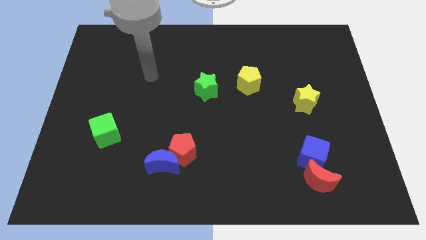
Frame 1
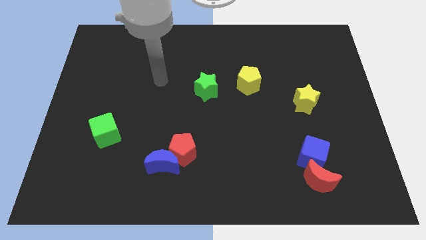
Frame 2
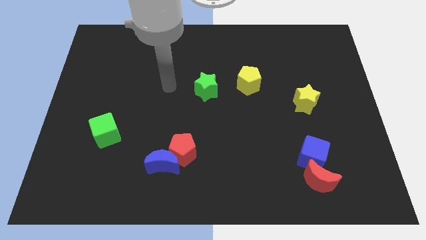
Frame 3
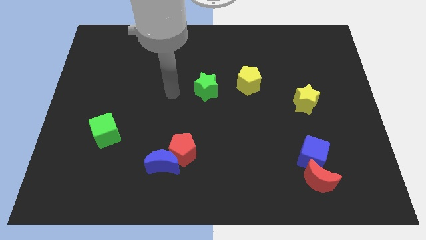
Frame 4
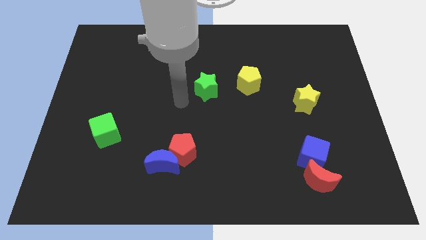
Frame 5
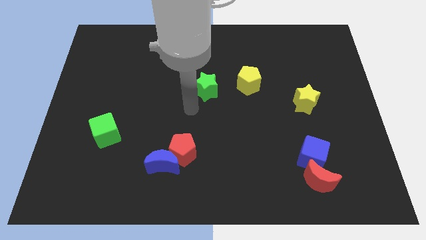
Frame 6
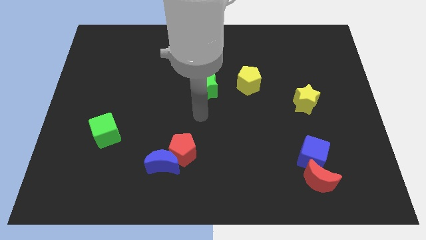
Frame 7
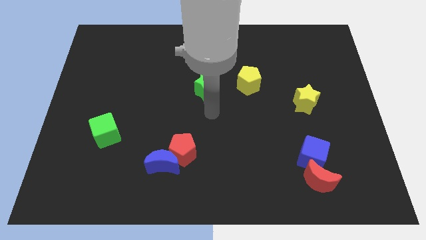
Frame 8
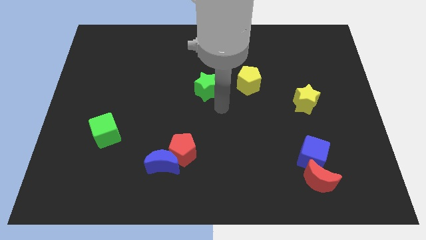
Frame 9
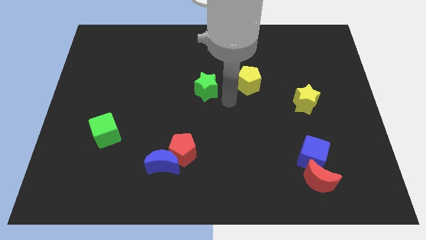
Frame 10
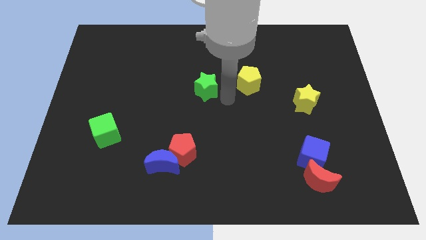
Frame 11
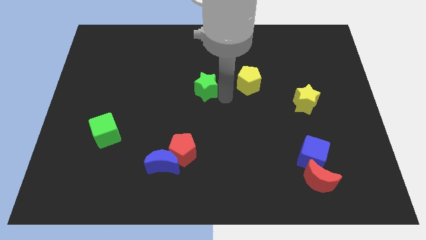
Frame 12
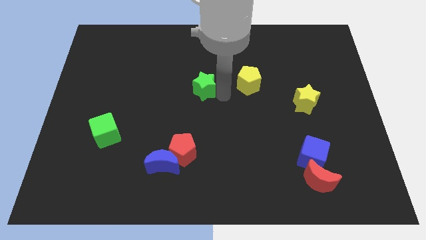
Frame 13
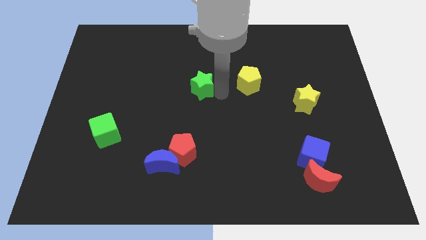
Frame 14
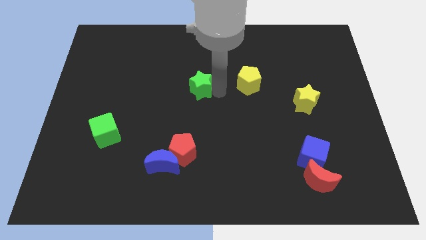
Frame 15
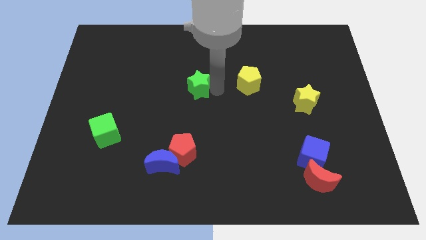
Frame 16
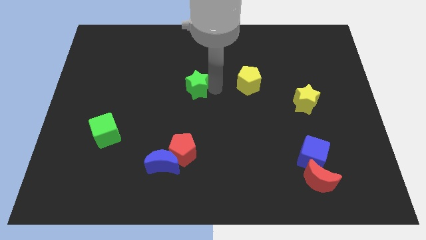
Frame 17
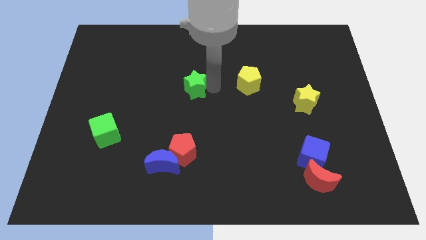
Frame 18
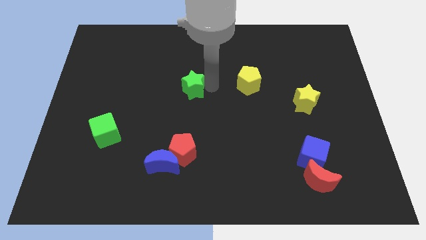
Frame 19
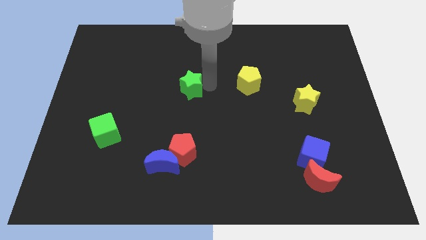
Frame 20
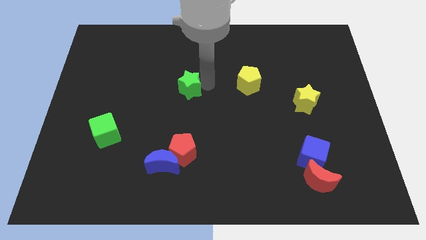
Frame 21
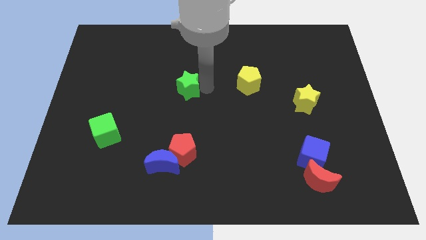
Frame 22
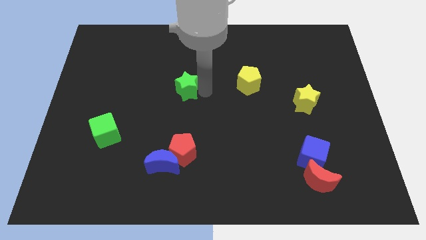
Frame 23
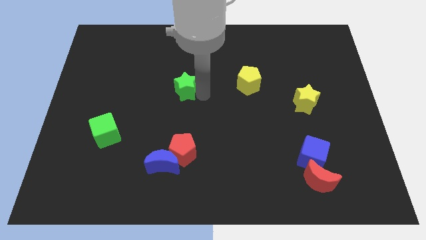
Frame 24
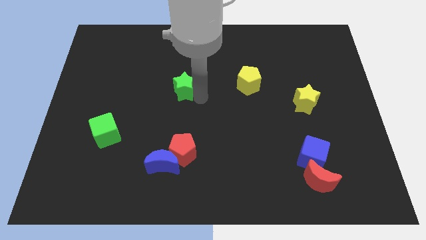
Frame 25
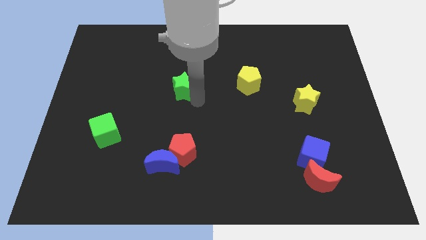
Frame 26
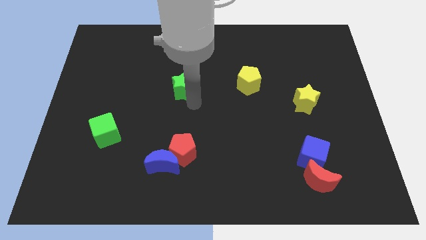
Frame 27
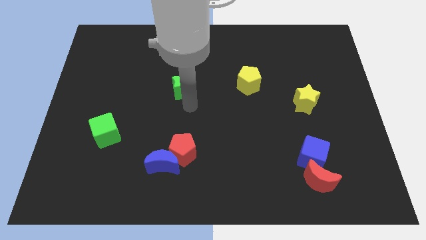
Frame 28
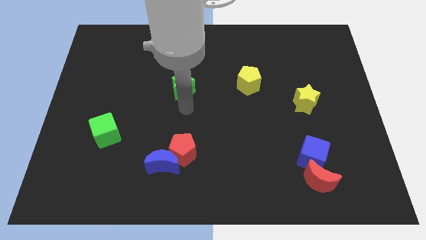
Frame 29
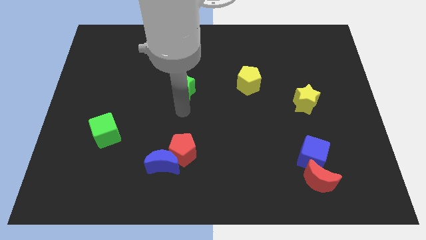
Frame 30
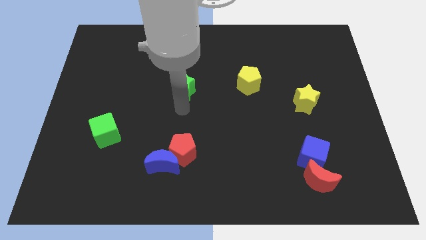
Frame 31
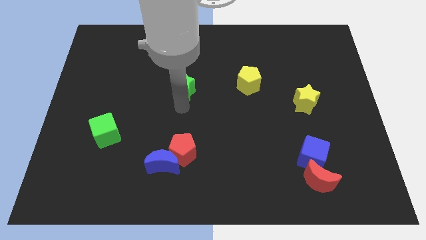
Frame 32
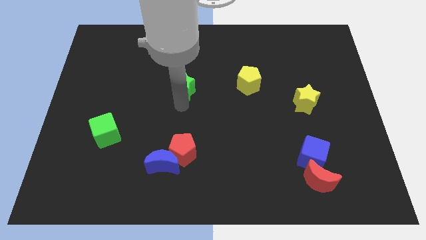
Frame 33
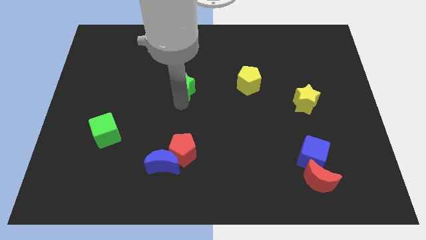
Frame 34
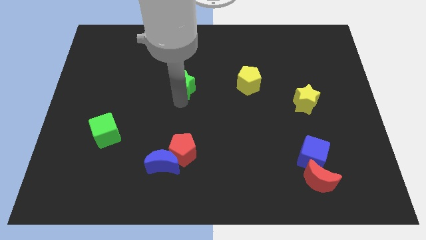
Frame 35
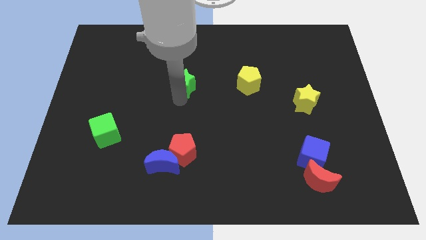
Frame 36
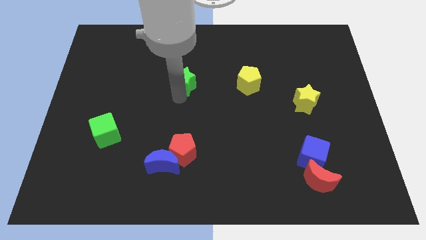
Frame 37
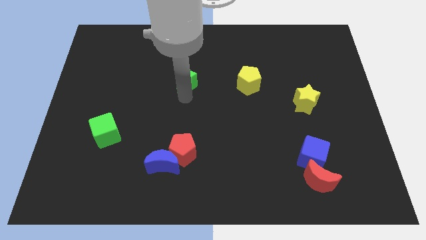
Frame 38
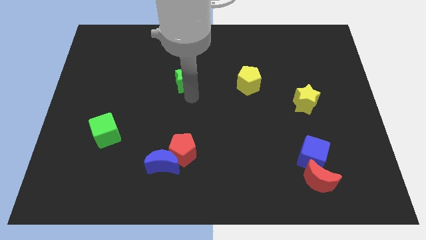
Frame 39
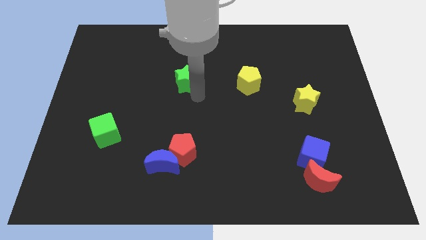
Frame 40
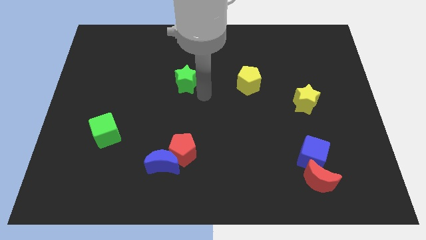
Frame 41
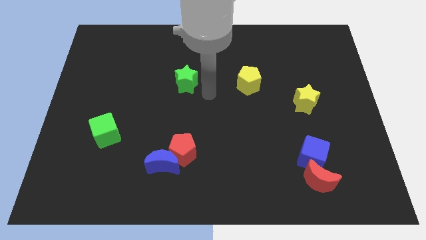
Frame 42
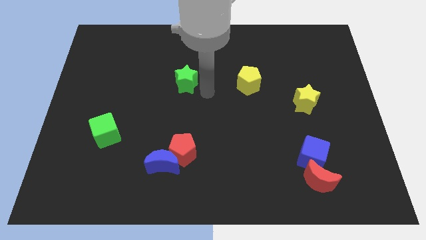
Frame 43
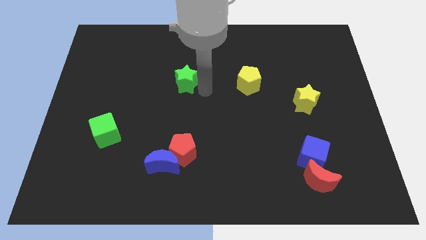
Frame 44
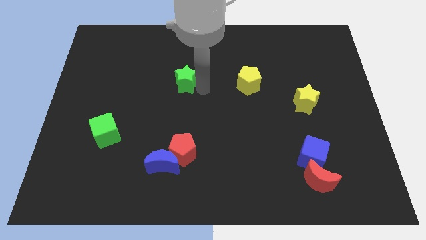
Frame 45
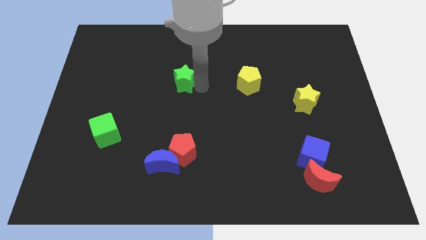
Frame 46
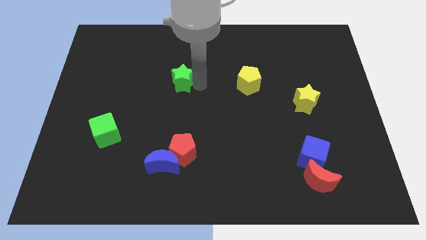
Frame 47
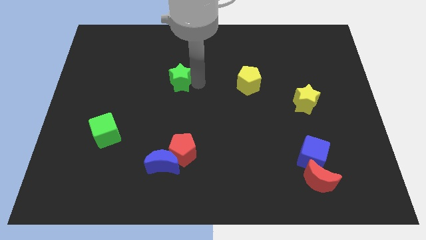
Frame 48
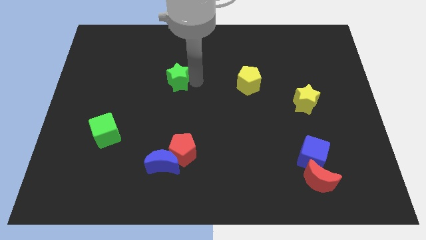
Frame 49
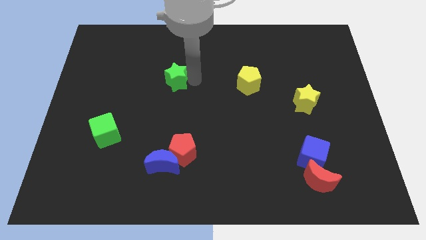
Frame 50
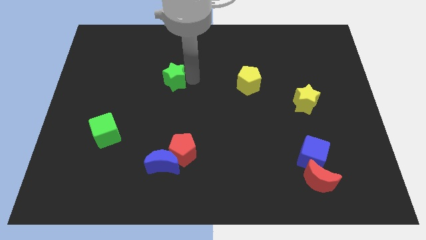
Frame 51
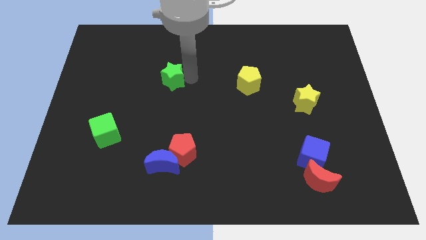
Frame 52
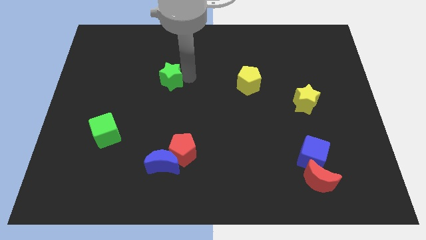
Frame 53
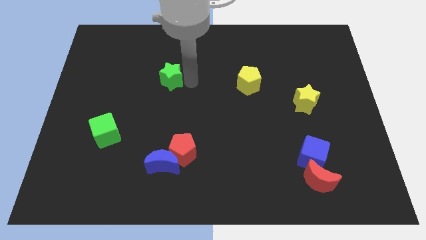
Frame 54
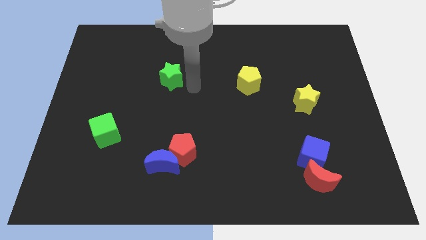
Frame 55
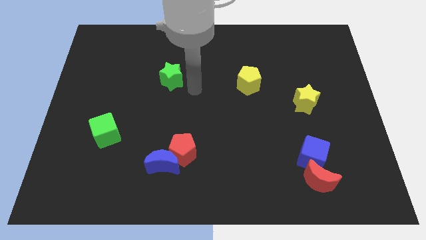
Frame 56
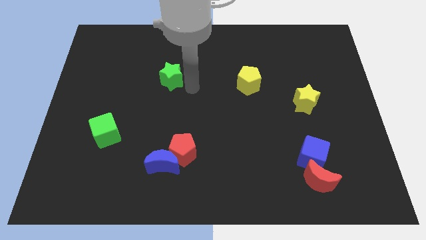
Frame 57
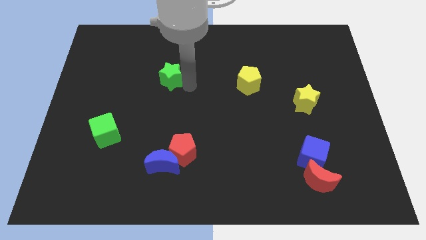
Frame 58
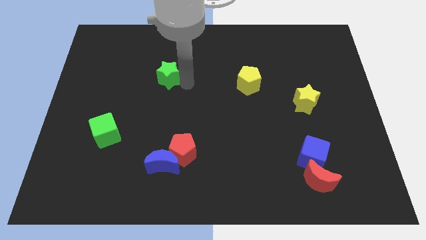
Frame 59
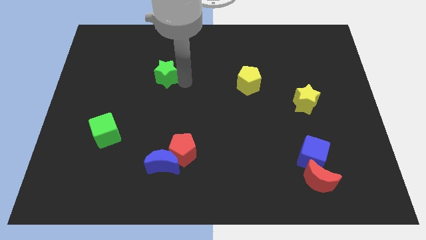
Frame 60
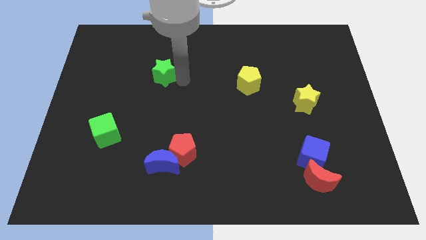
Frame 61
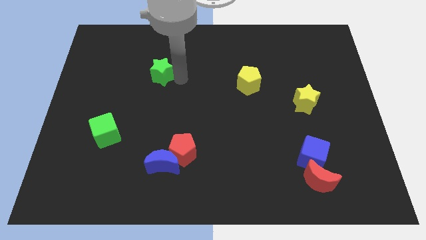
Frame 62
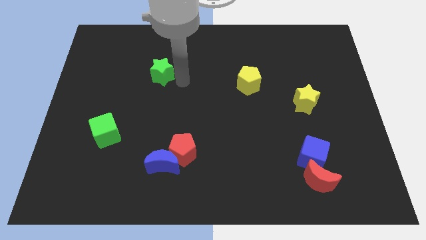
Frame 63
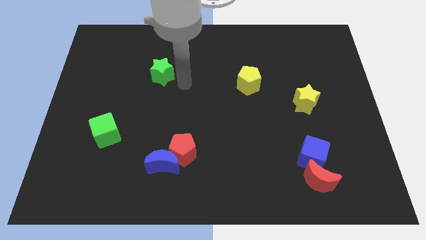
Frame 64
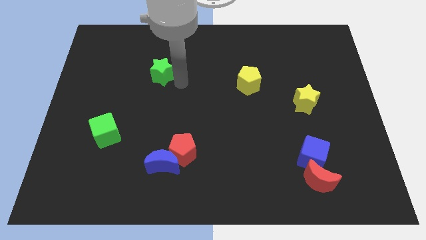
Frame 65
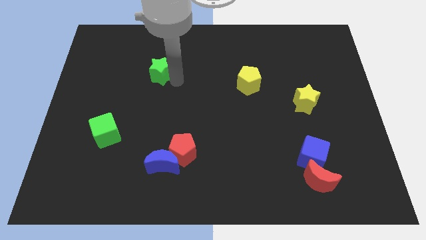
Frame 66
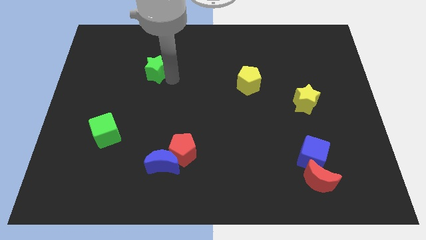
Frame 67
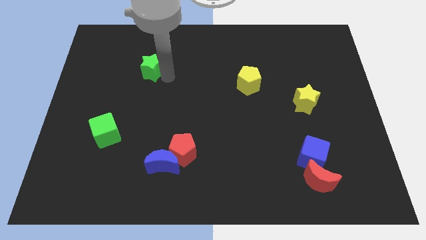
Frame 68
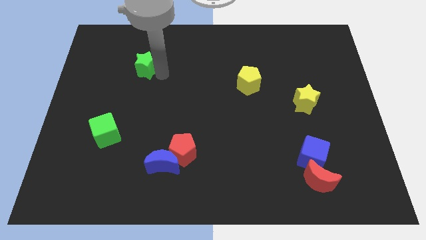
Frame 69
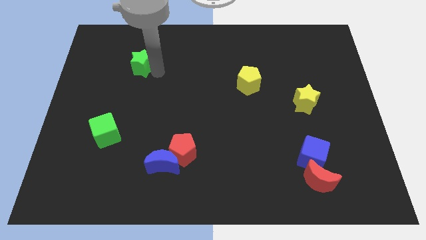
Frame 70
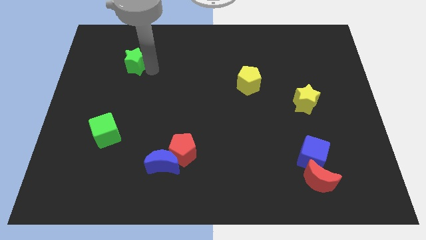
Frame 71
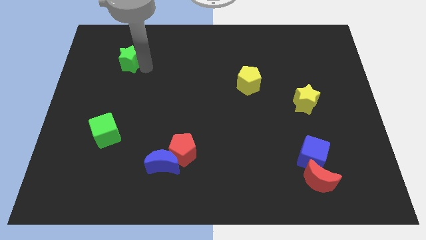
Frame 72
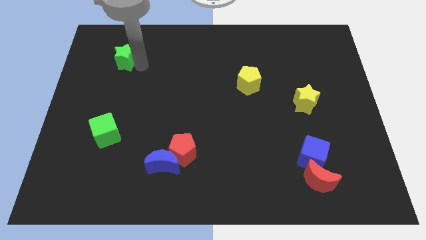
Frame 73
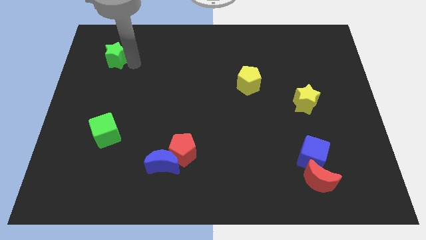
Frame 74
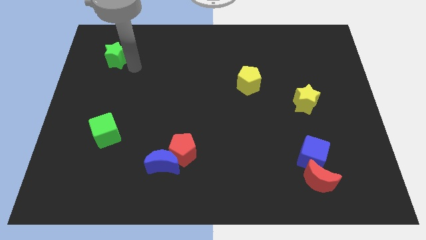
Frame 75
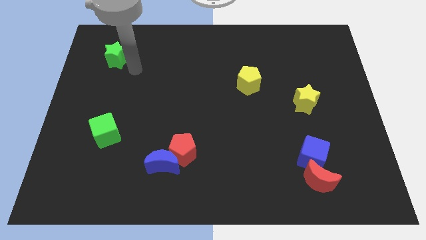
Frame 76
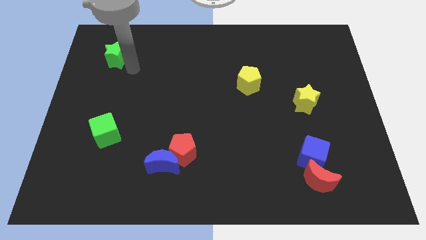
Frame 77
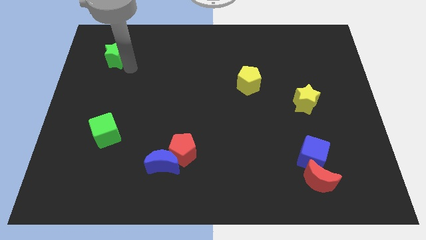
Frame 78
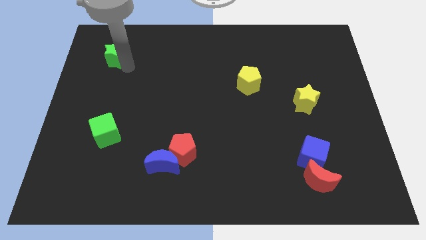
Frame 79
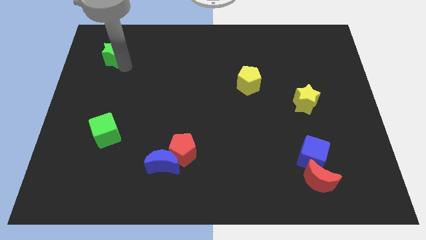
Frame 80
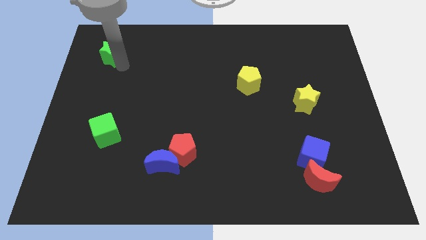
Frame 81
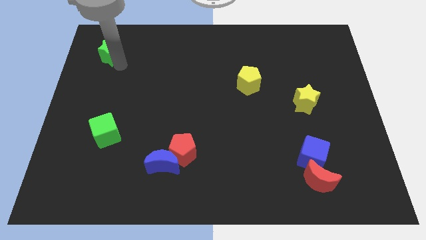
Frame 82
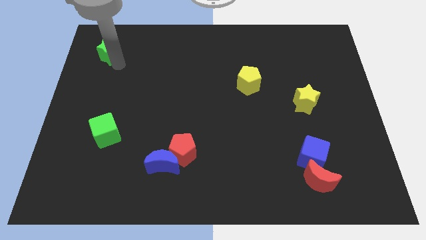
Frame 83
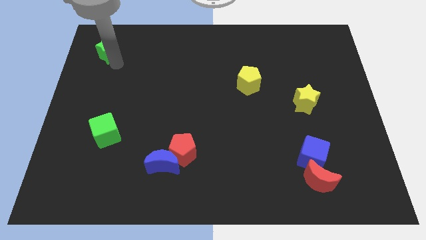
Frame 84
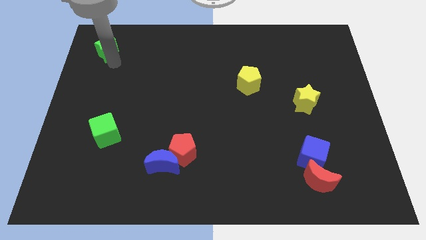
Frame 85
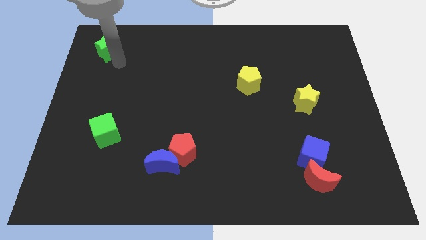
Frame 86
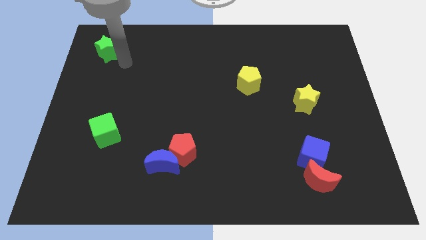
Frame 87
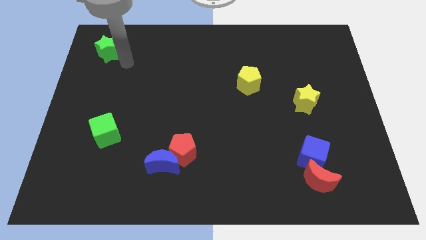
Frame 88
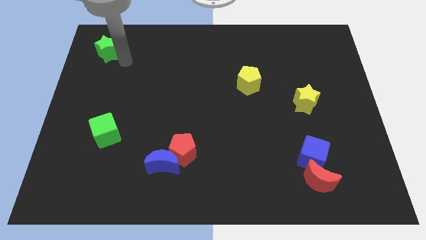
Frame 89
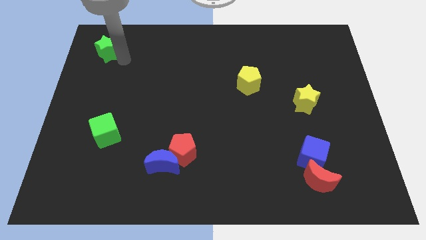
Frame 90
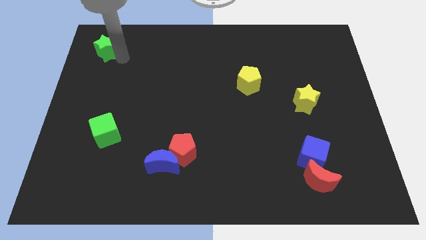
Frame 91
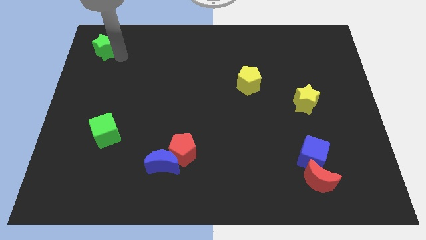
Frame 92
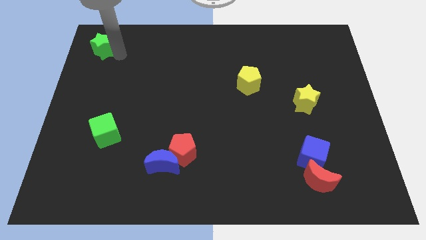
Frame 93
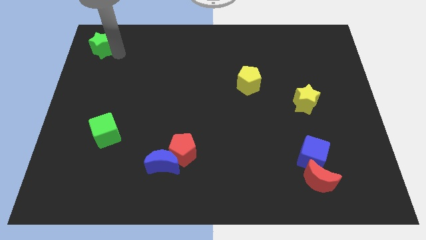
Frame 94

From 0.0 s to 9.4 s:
push the green star to the upper left corner
